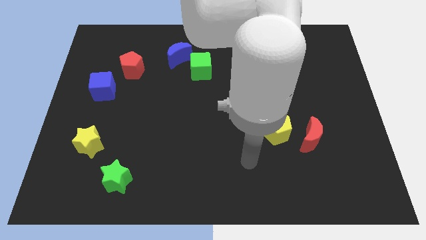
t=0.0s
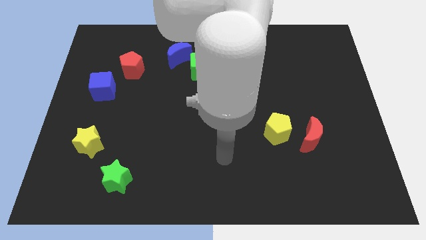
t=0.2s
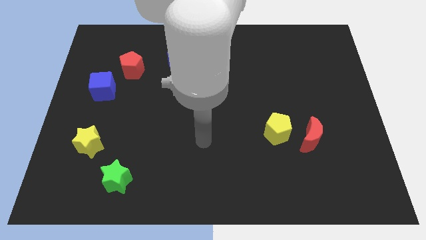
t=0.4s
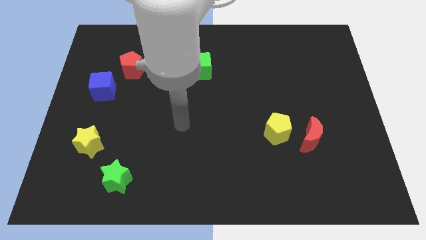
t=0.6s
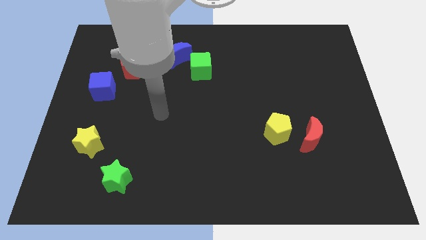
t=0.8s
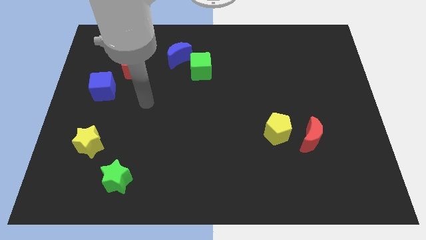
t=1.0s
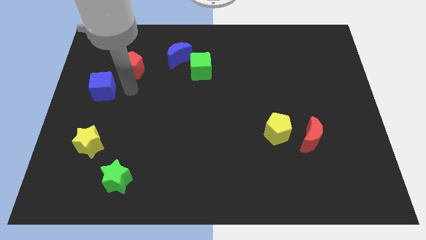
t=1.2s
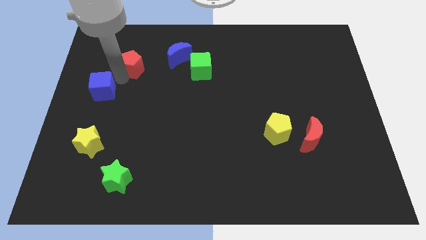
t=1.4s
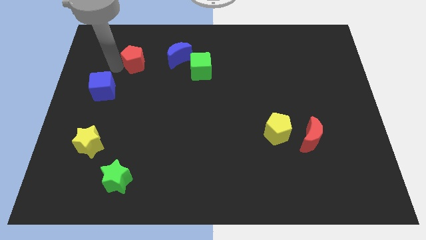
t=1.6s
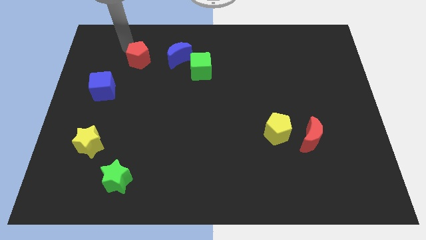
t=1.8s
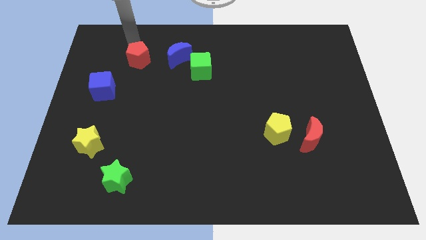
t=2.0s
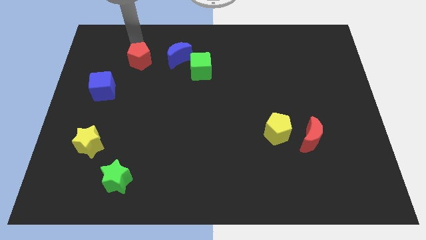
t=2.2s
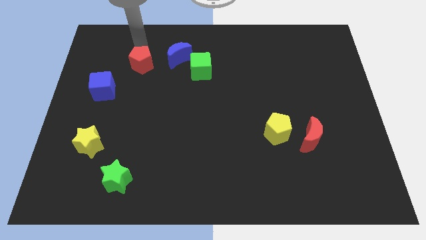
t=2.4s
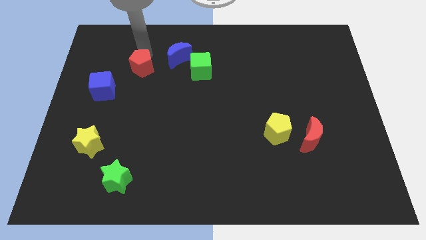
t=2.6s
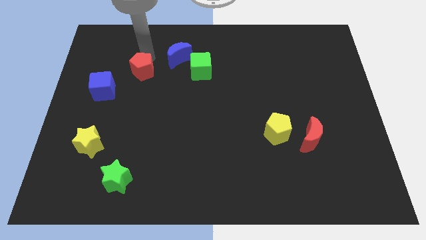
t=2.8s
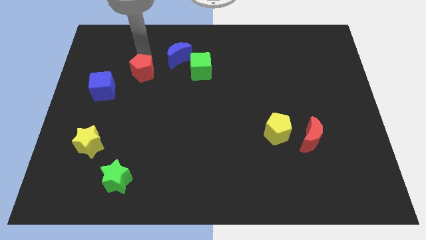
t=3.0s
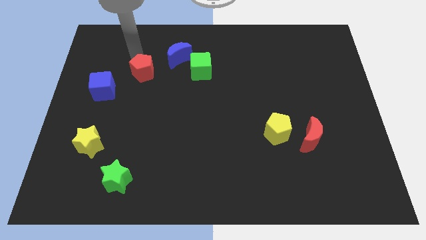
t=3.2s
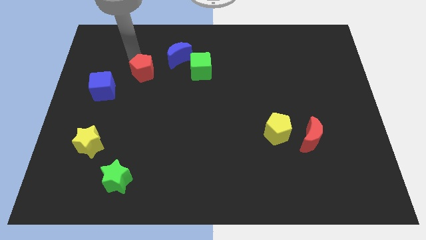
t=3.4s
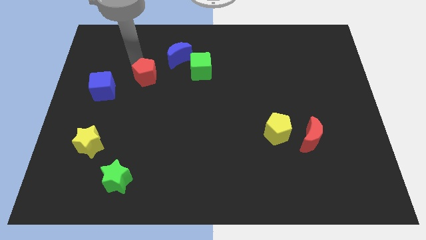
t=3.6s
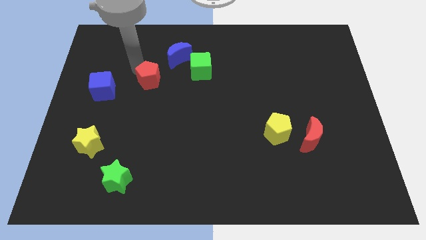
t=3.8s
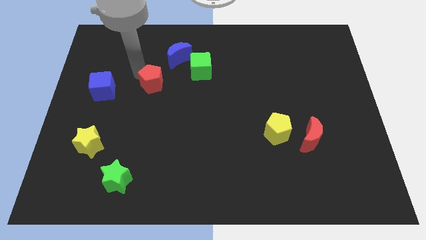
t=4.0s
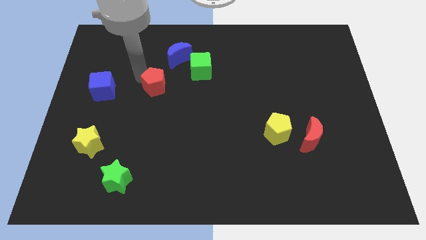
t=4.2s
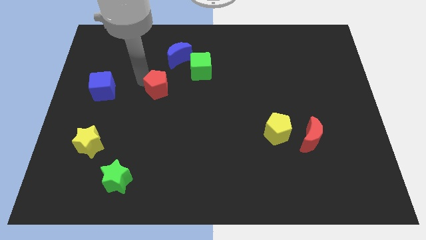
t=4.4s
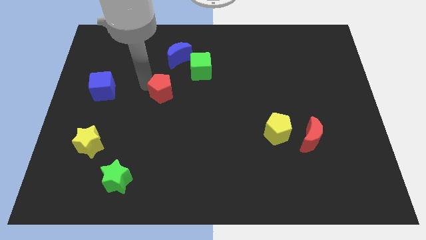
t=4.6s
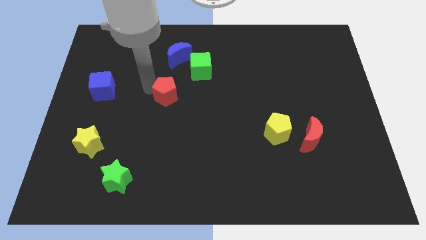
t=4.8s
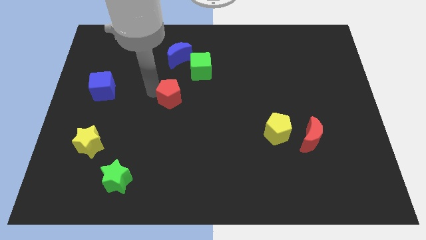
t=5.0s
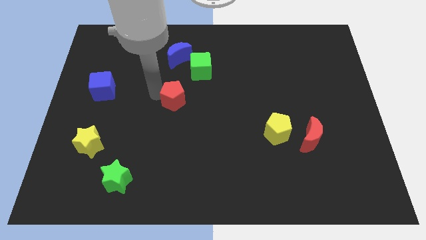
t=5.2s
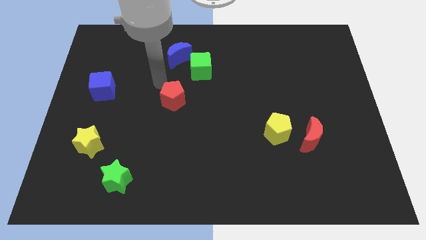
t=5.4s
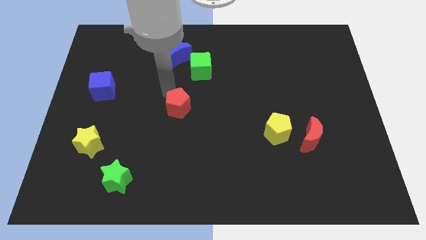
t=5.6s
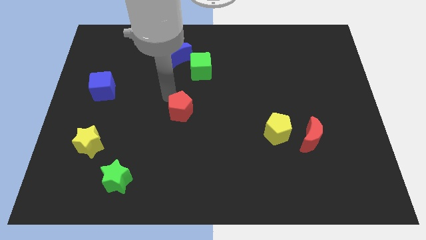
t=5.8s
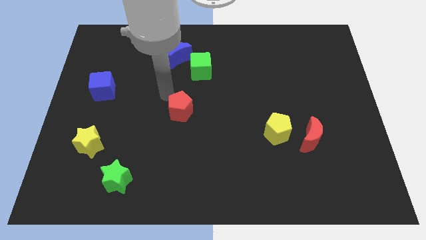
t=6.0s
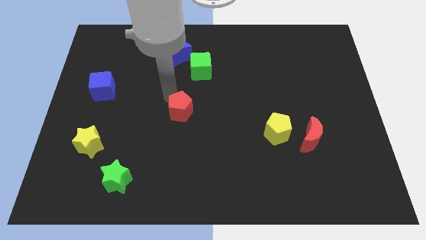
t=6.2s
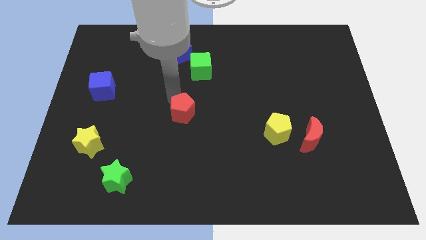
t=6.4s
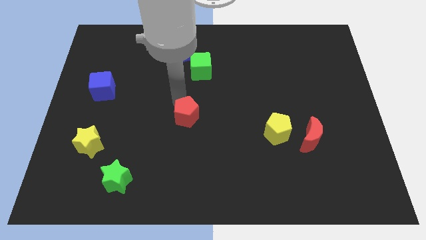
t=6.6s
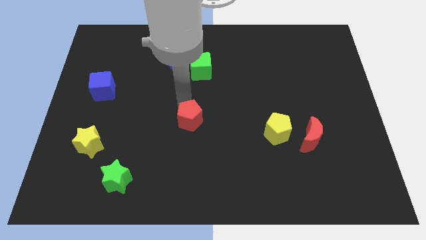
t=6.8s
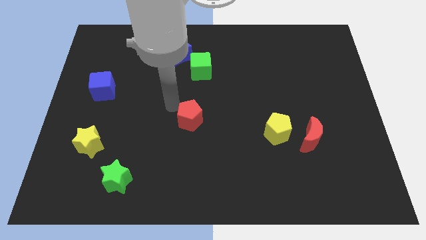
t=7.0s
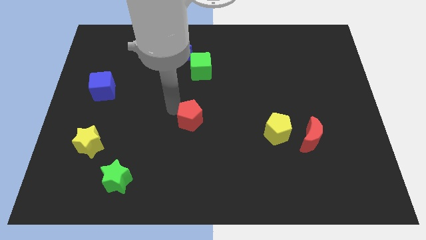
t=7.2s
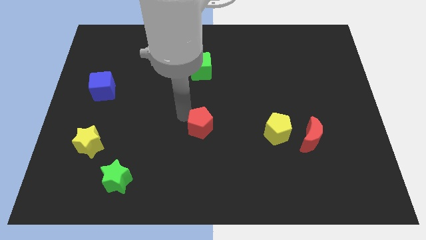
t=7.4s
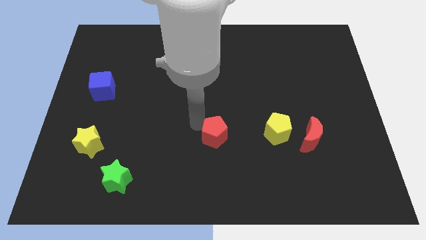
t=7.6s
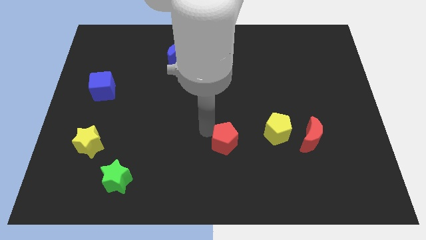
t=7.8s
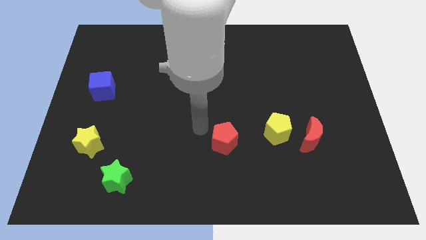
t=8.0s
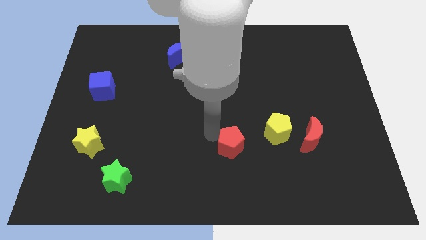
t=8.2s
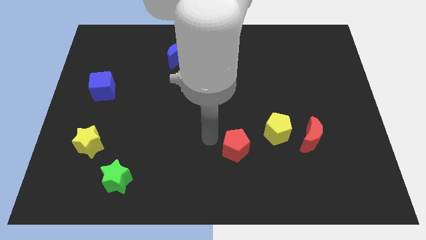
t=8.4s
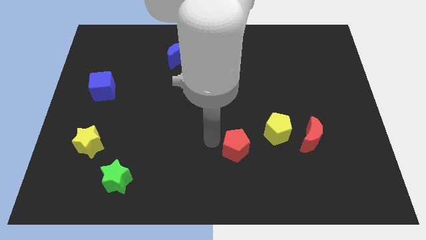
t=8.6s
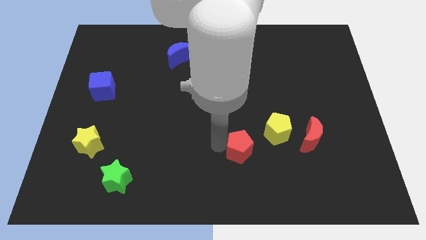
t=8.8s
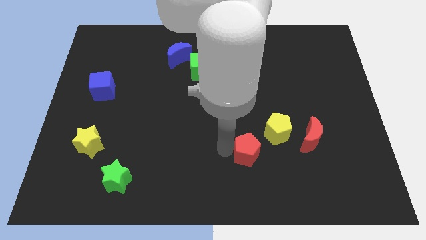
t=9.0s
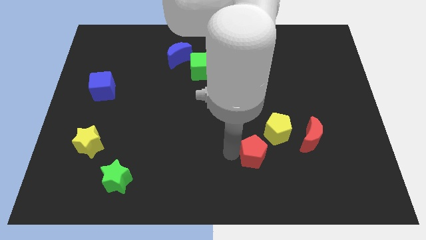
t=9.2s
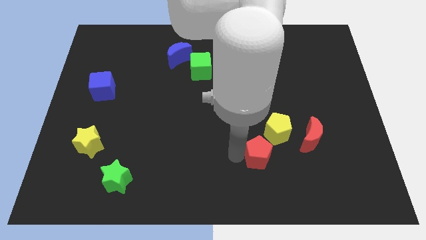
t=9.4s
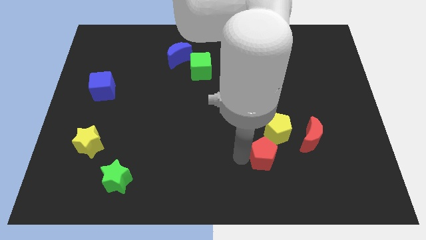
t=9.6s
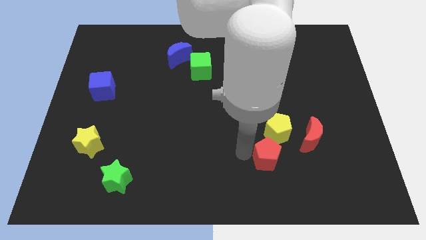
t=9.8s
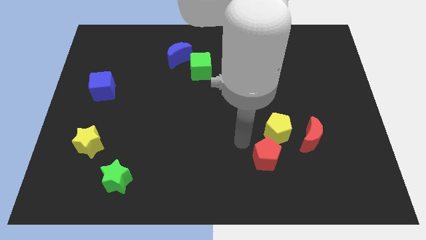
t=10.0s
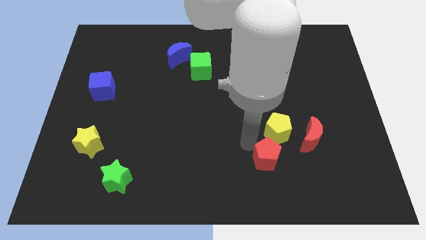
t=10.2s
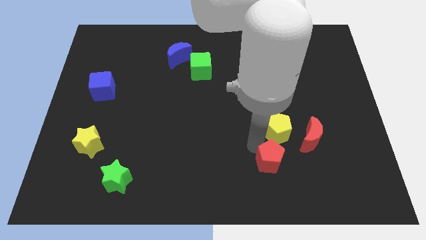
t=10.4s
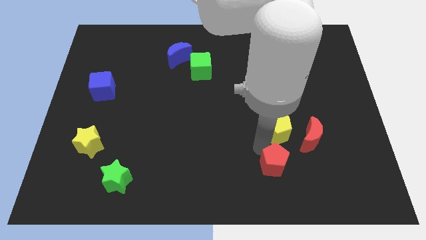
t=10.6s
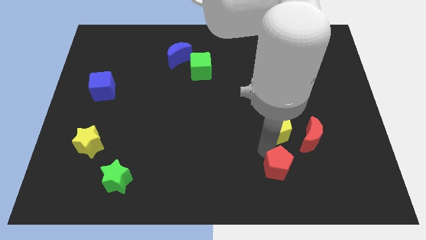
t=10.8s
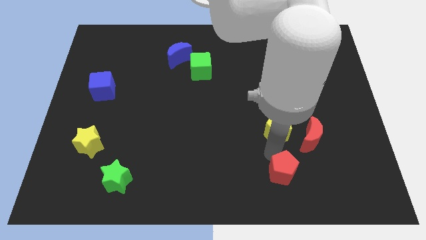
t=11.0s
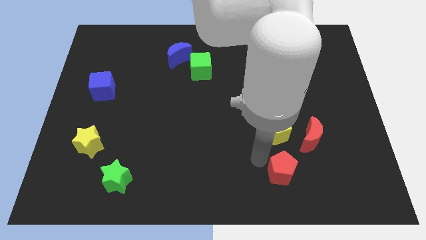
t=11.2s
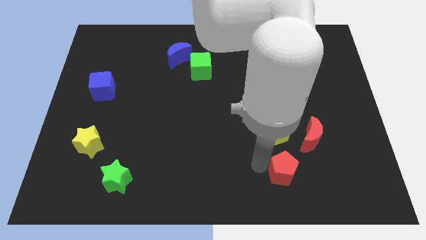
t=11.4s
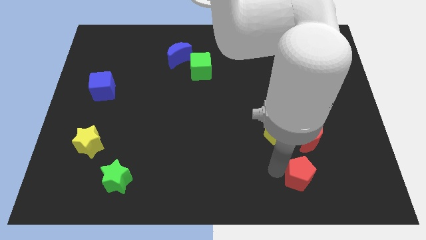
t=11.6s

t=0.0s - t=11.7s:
push the red pentagon to the bottom of the red moon

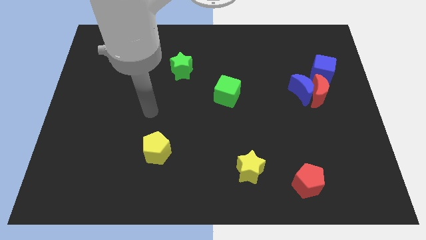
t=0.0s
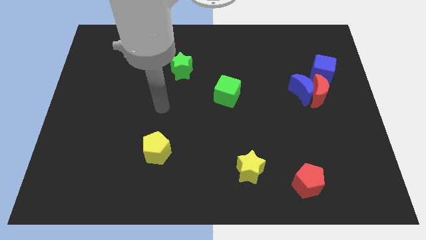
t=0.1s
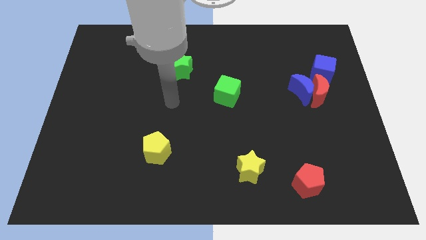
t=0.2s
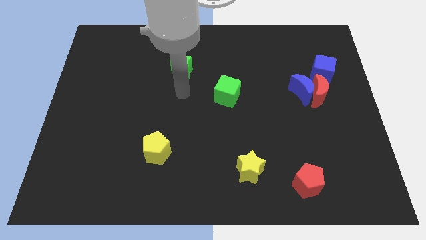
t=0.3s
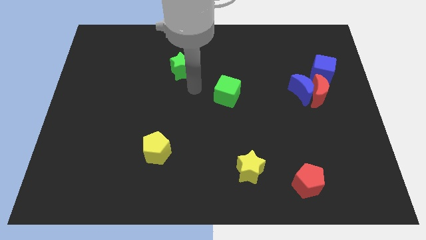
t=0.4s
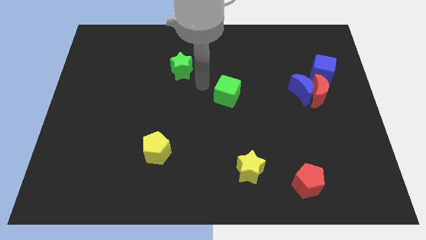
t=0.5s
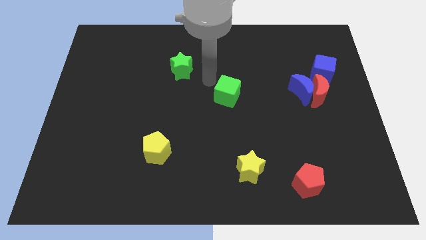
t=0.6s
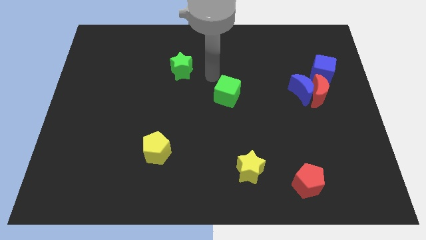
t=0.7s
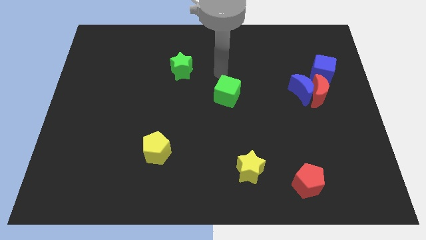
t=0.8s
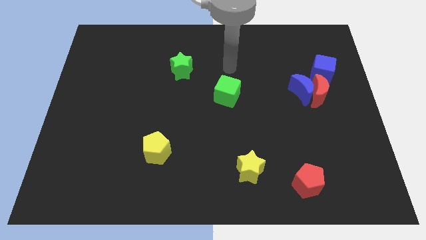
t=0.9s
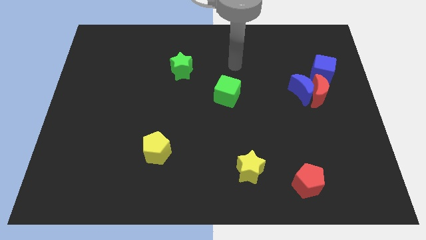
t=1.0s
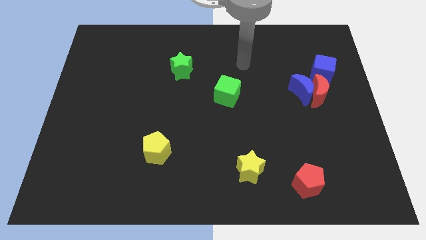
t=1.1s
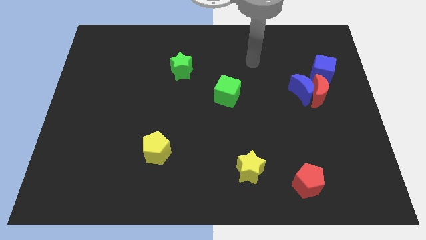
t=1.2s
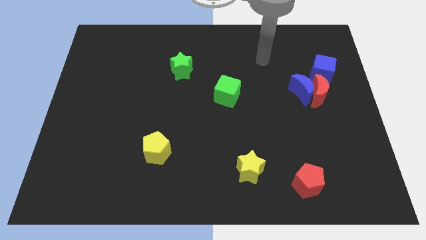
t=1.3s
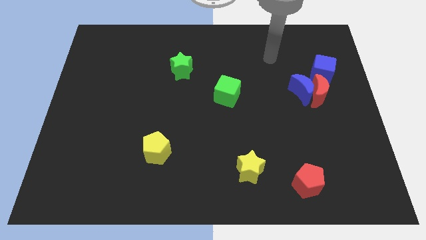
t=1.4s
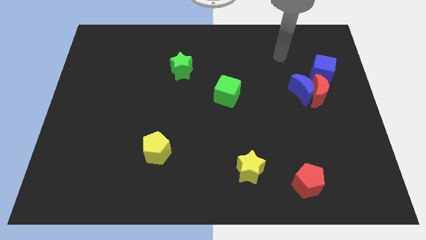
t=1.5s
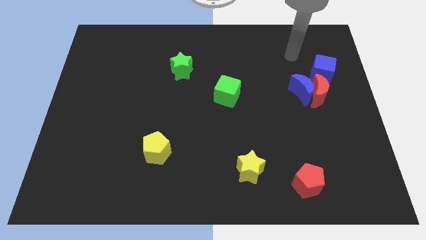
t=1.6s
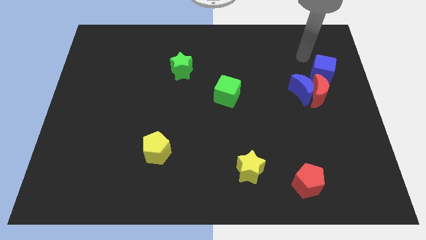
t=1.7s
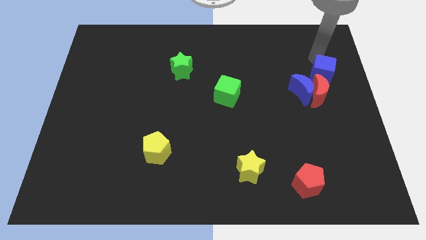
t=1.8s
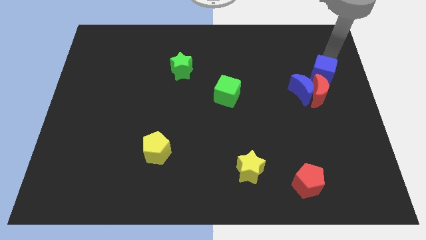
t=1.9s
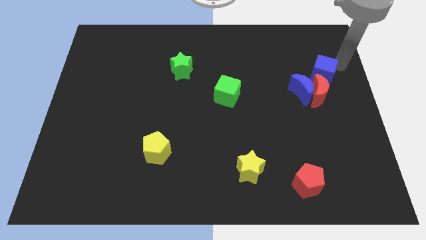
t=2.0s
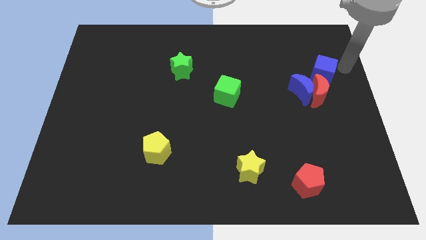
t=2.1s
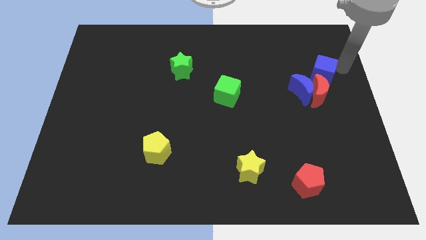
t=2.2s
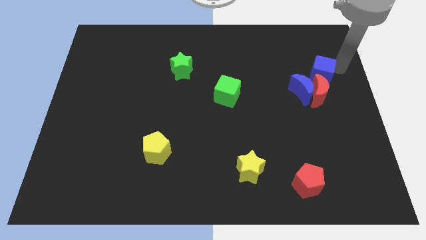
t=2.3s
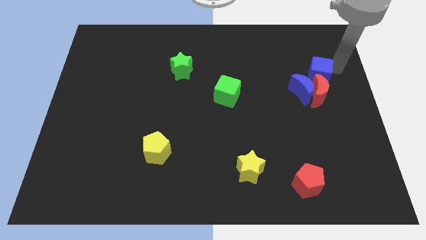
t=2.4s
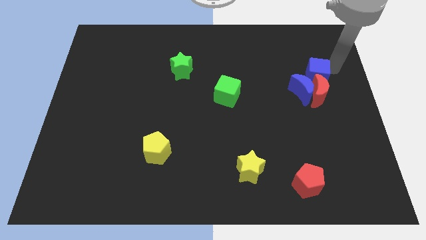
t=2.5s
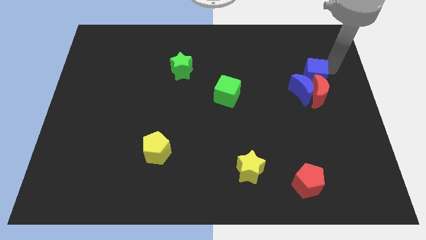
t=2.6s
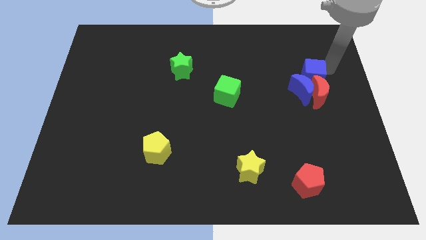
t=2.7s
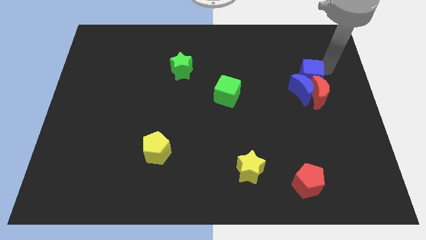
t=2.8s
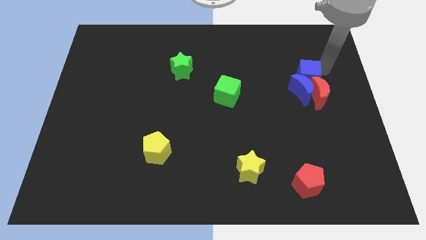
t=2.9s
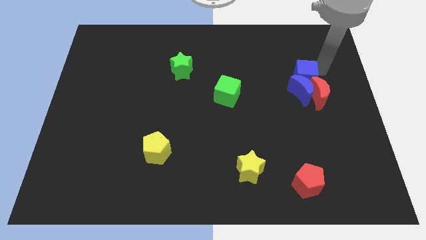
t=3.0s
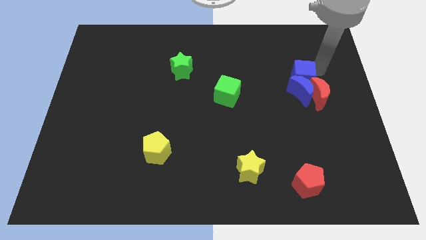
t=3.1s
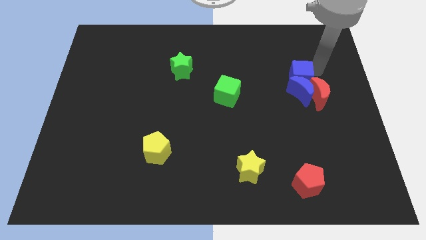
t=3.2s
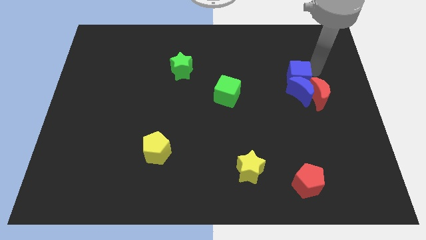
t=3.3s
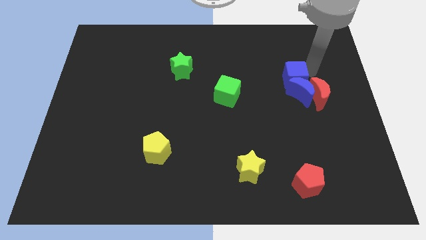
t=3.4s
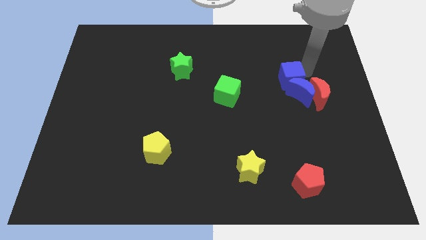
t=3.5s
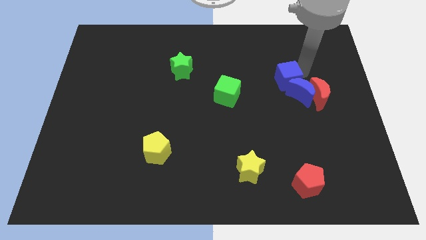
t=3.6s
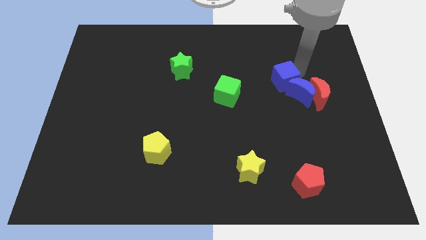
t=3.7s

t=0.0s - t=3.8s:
push the blue cube left of the blue moon
